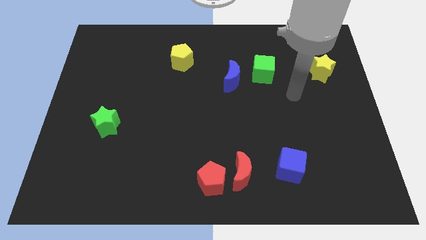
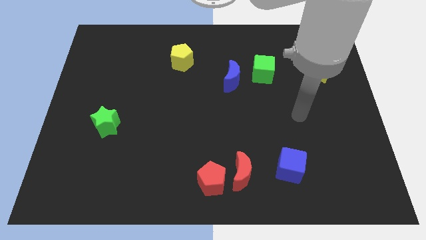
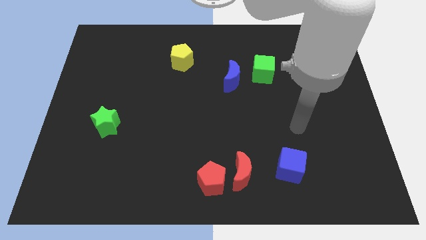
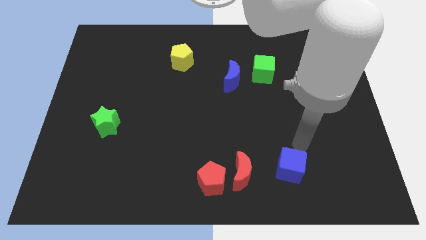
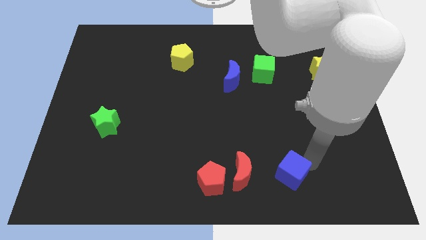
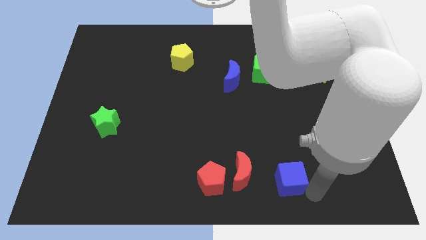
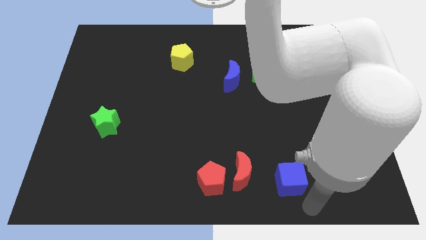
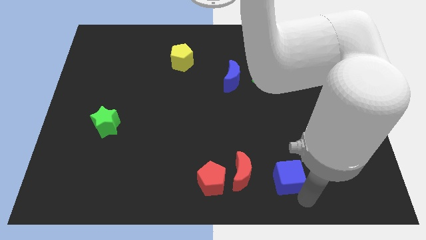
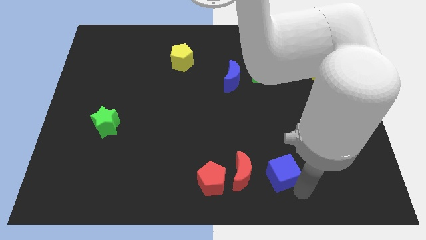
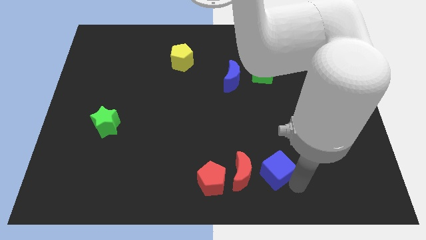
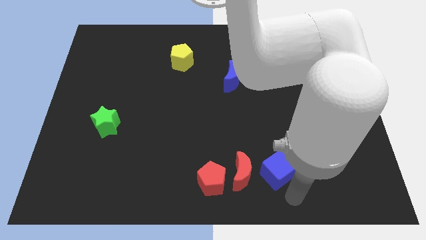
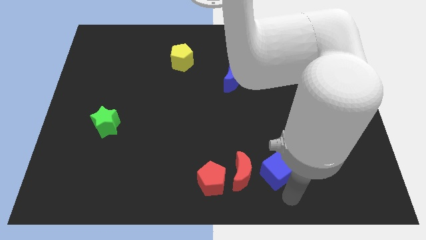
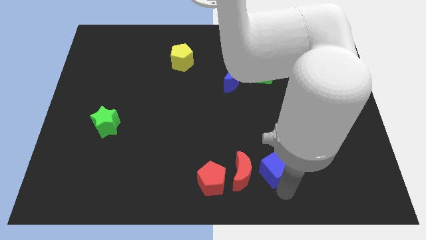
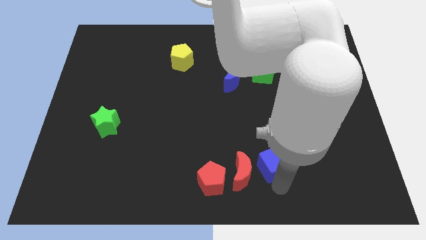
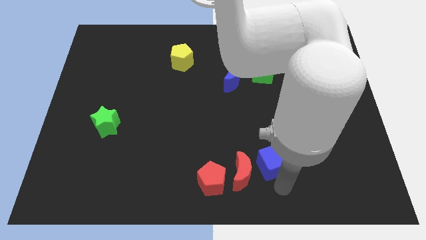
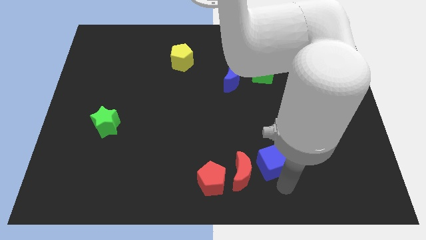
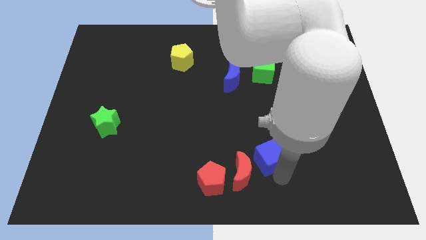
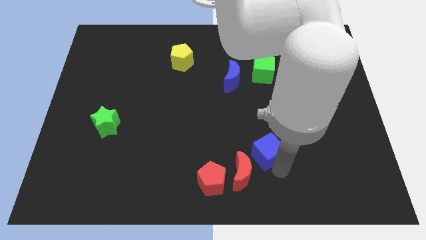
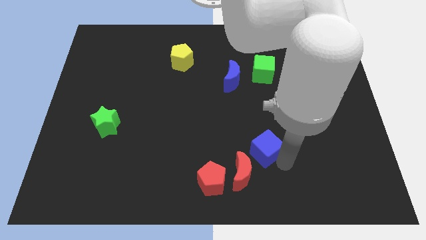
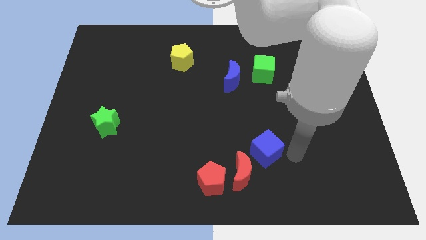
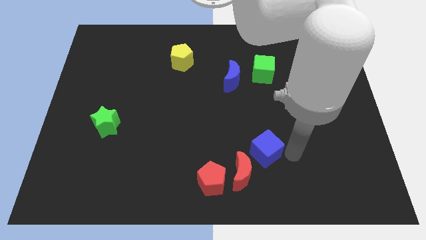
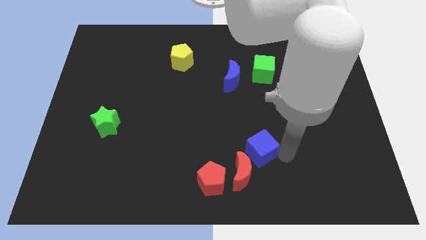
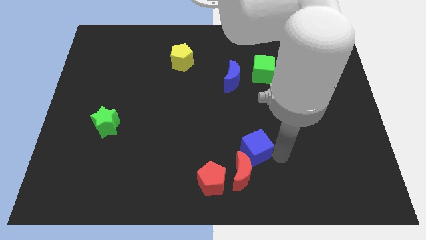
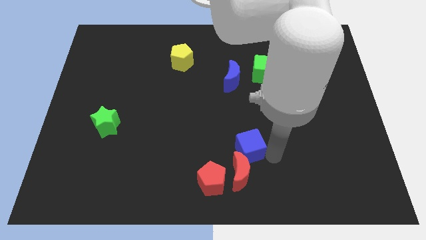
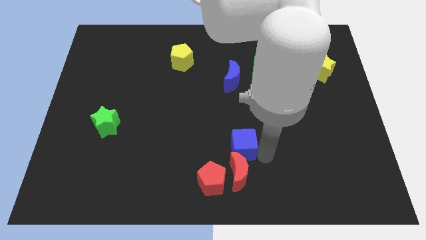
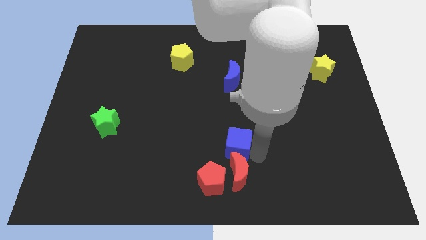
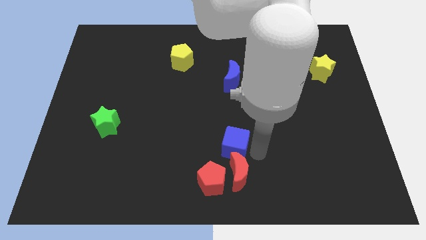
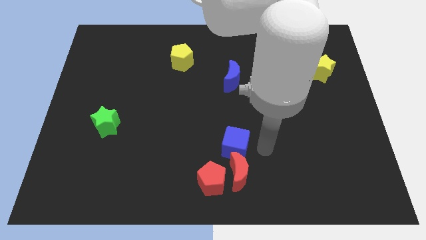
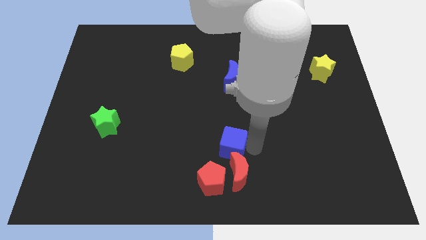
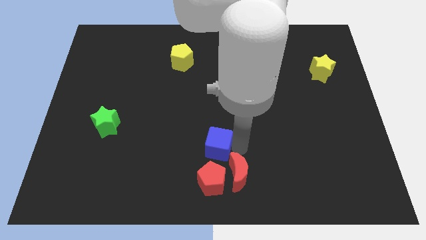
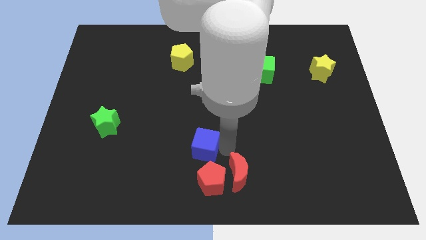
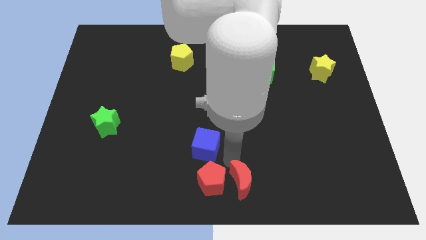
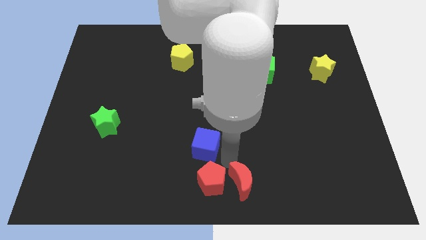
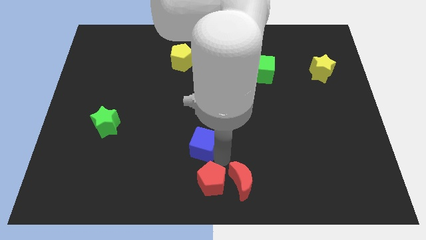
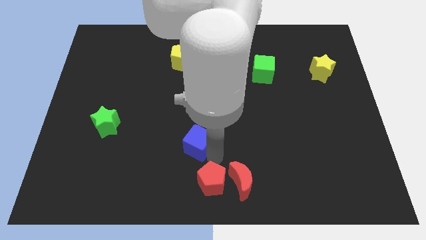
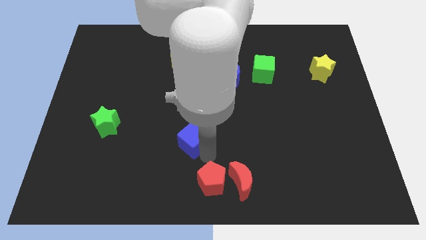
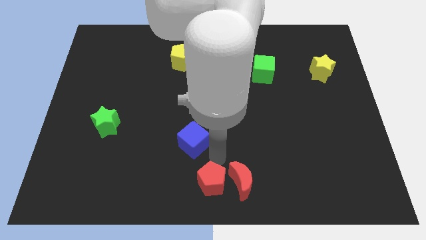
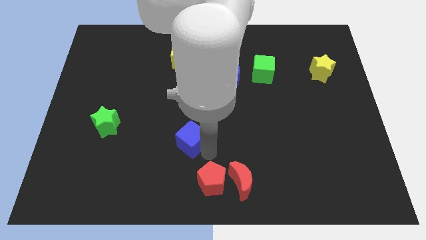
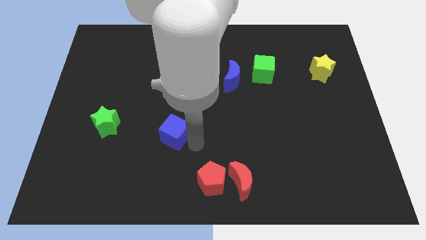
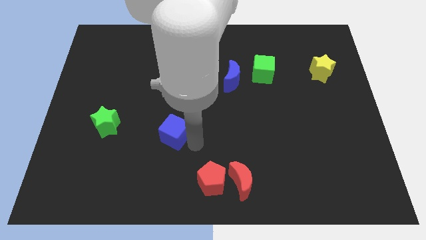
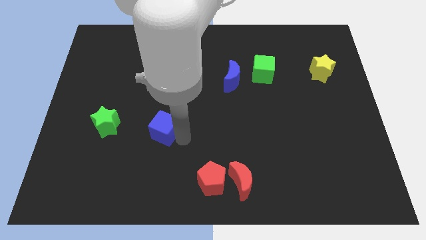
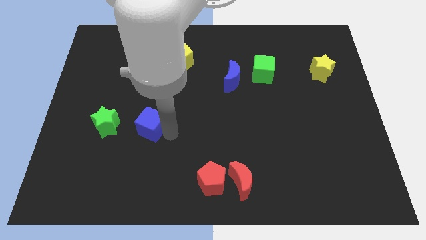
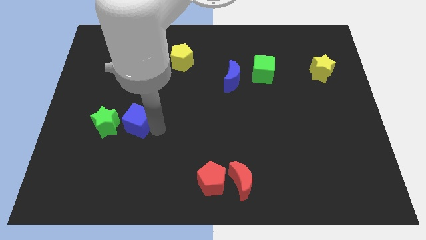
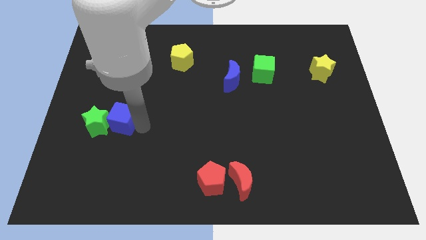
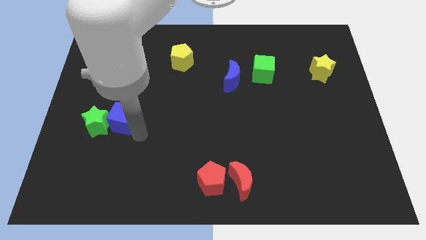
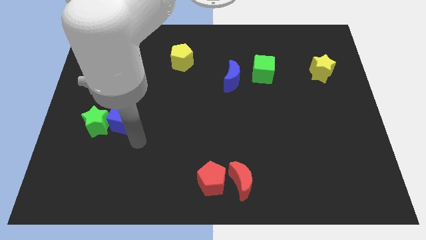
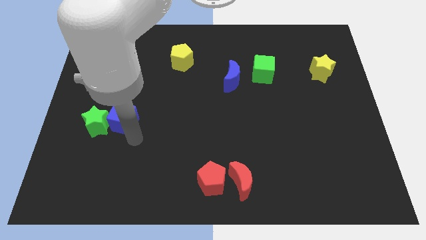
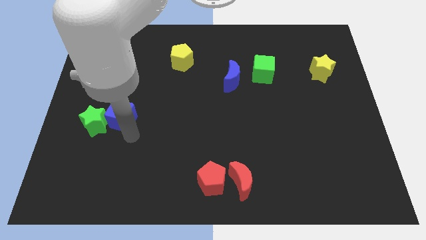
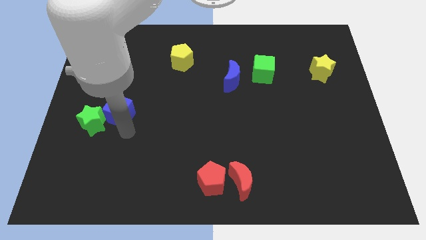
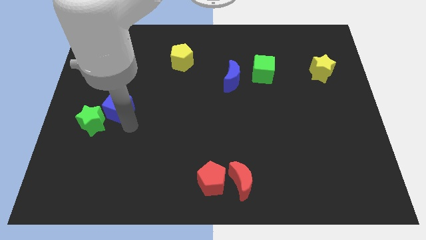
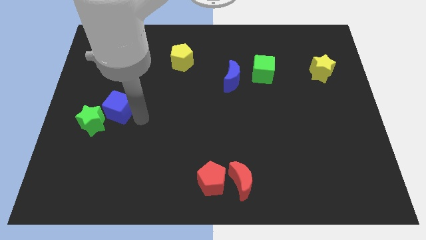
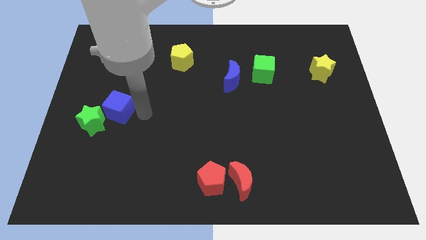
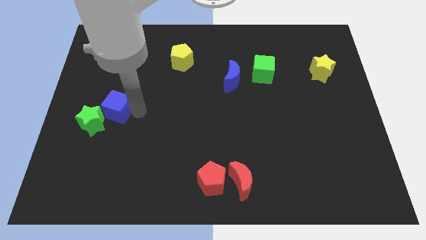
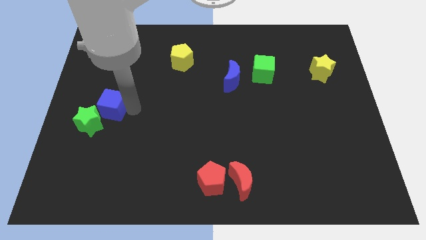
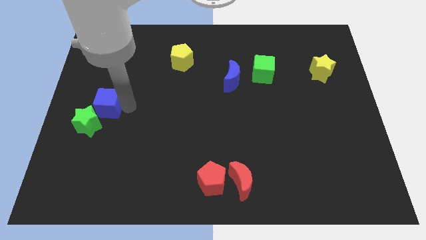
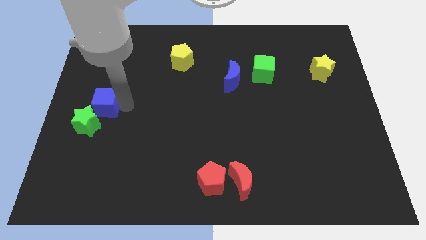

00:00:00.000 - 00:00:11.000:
push the blue cube to the left side

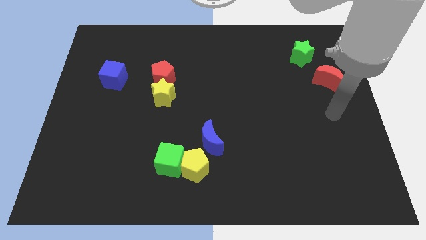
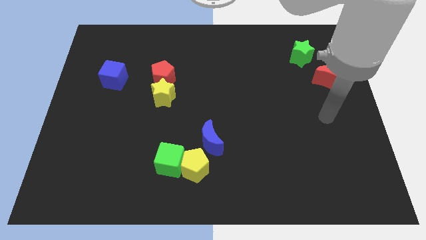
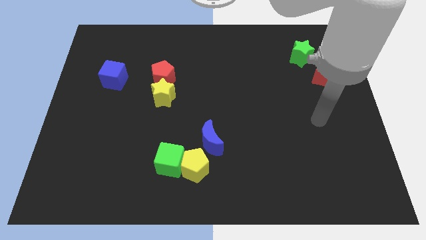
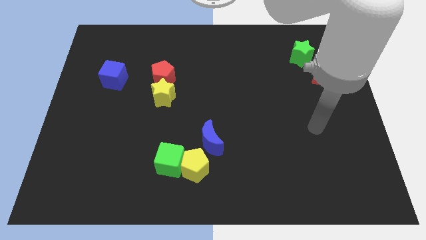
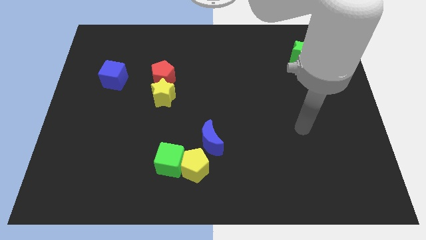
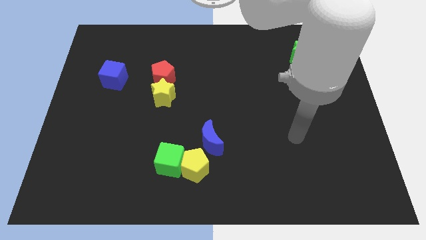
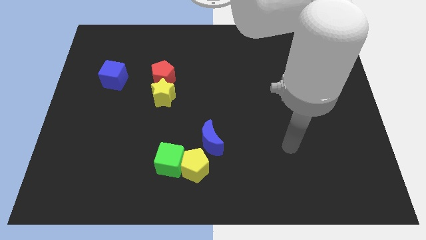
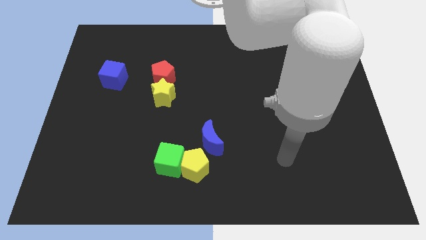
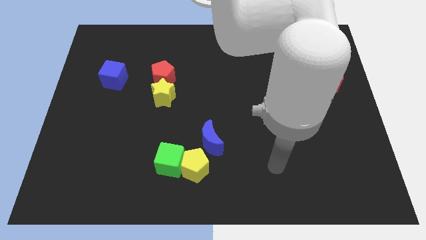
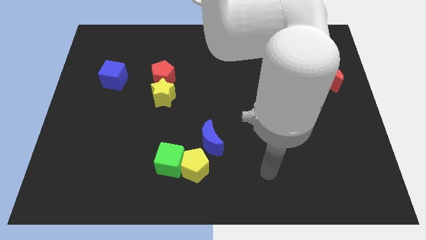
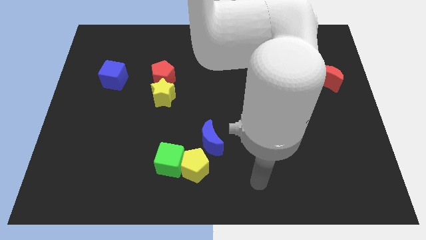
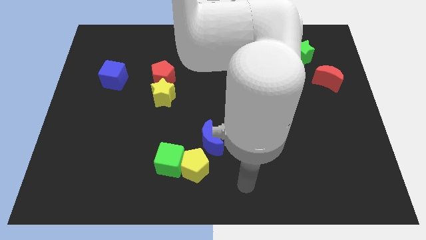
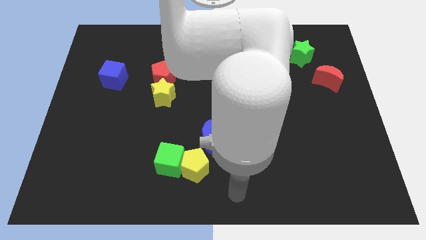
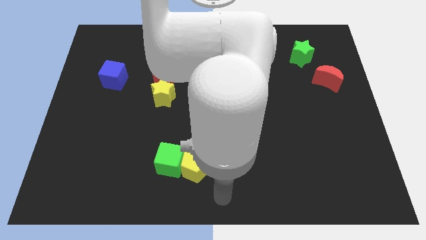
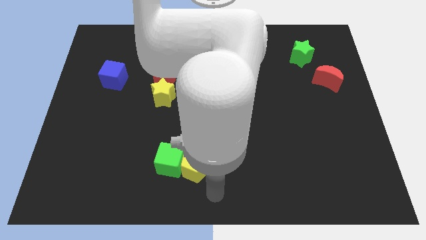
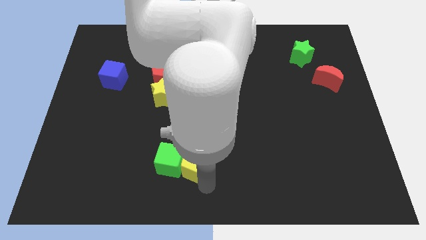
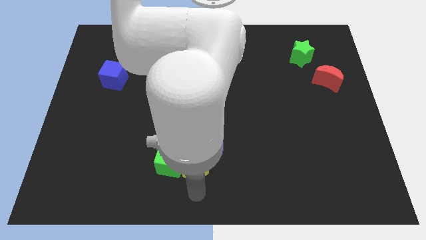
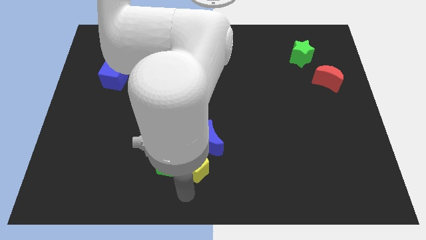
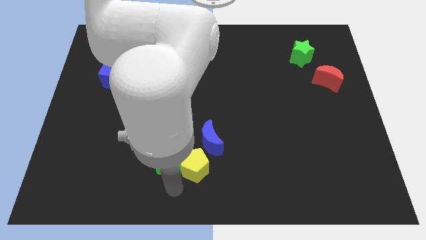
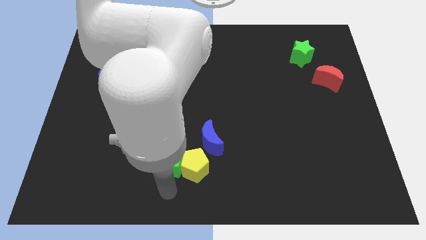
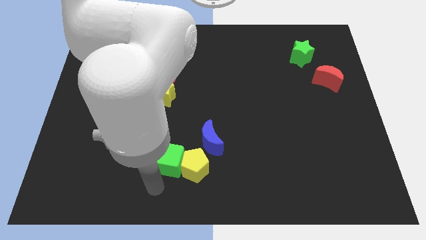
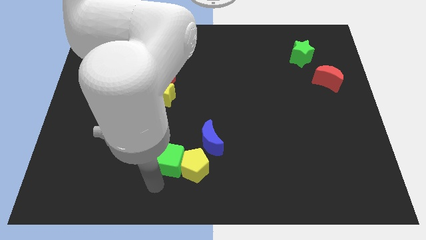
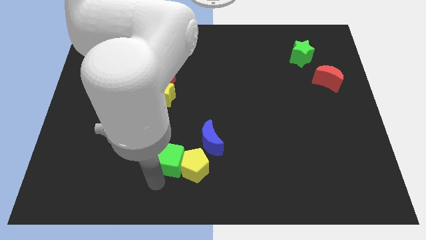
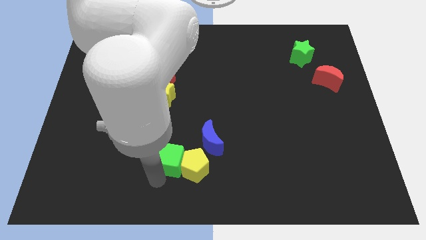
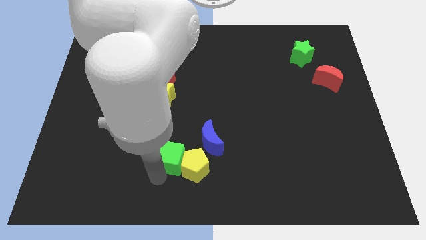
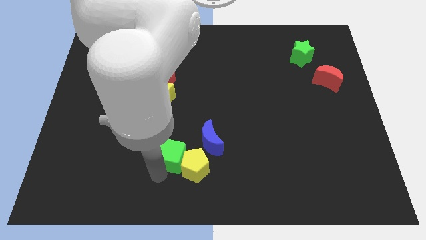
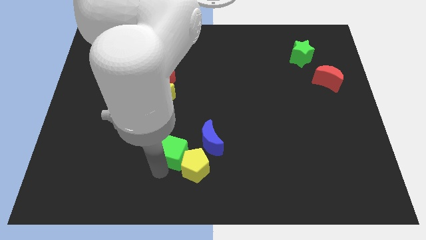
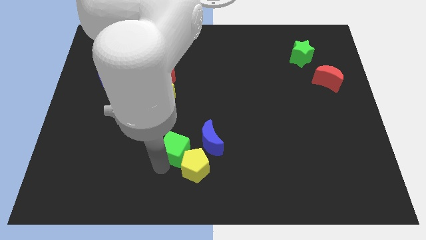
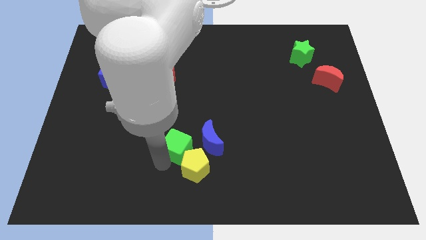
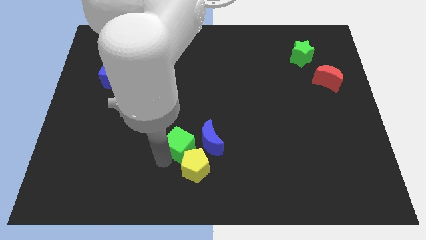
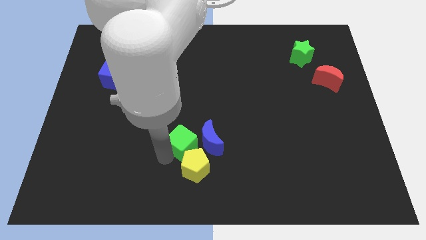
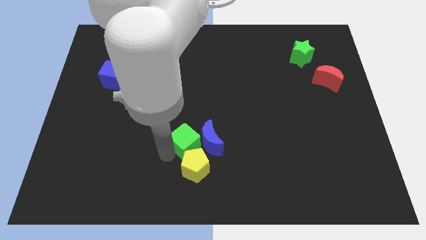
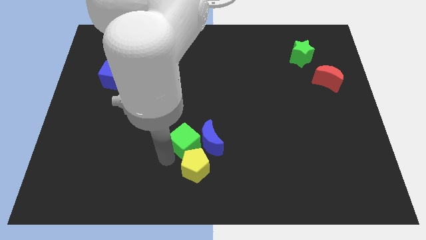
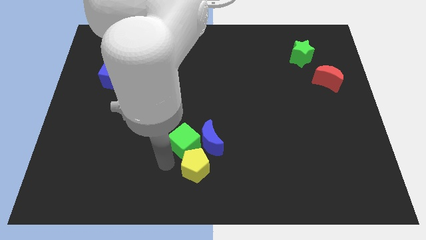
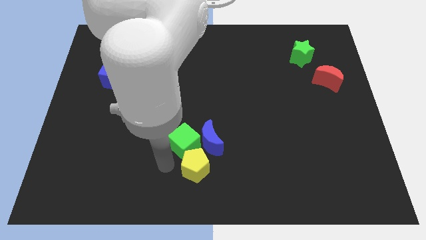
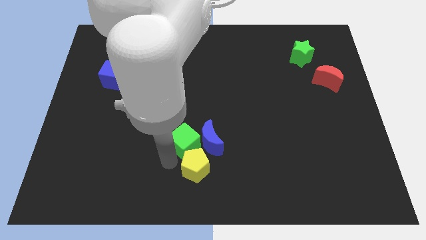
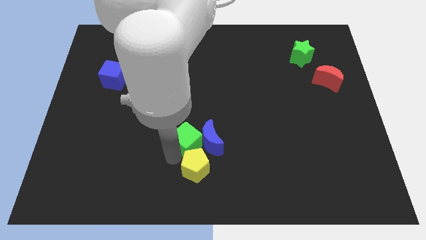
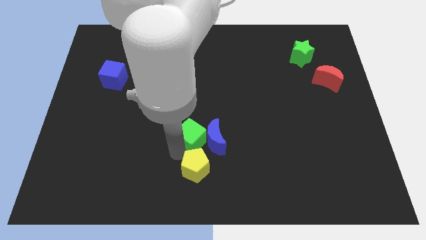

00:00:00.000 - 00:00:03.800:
slide the green cube to the middle of the board
